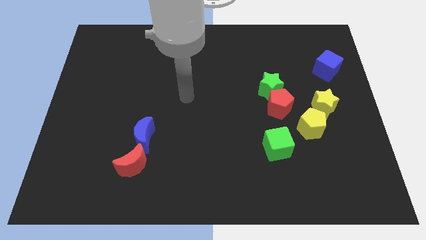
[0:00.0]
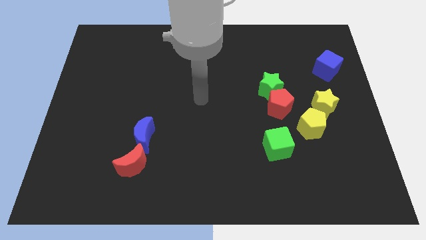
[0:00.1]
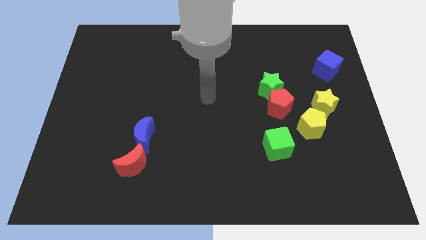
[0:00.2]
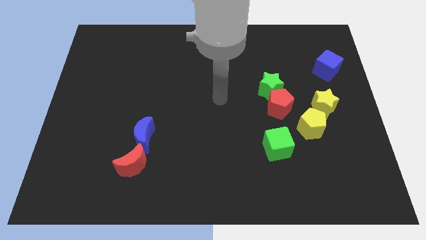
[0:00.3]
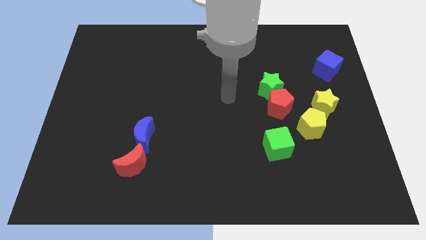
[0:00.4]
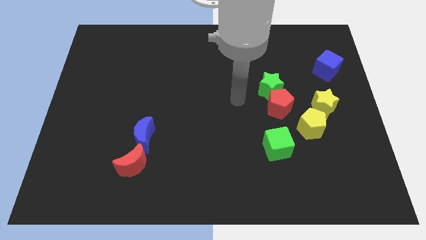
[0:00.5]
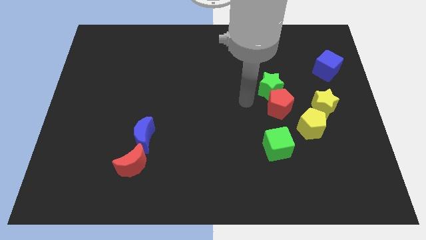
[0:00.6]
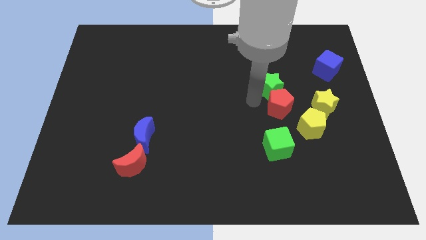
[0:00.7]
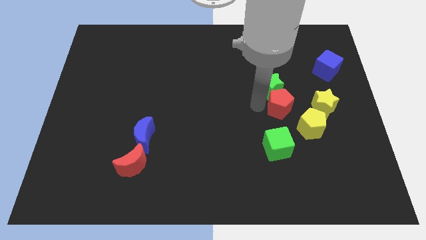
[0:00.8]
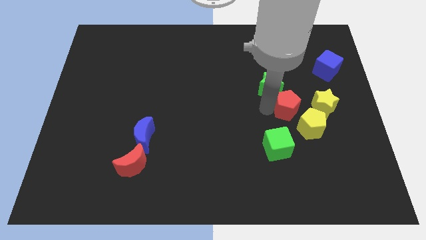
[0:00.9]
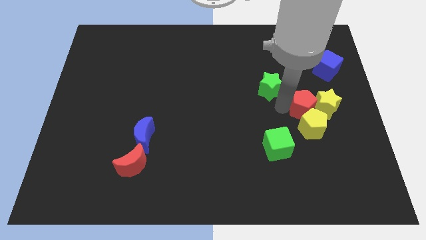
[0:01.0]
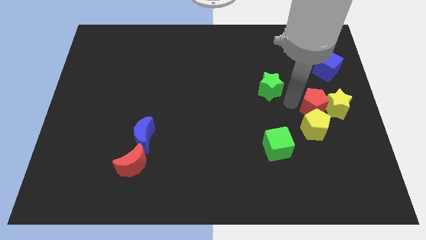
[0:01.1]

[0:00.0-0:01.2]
pull the green star apart from the red pentagon

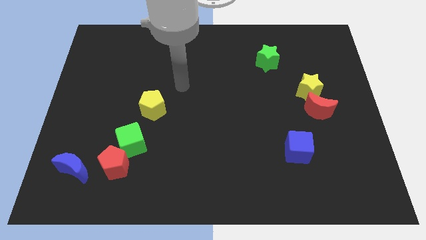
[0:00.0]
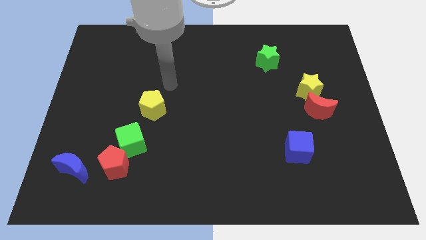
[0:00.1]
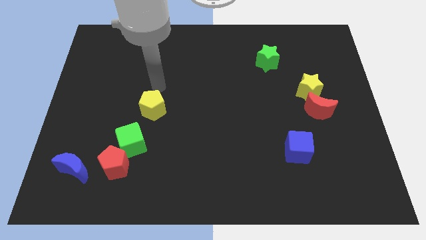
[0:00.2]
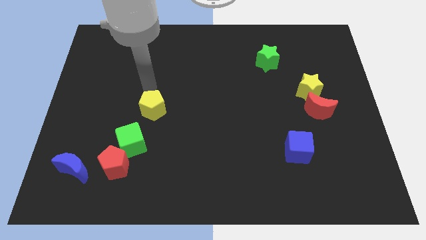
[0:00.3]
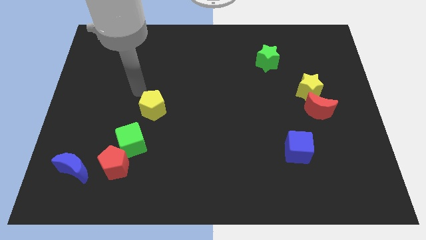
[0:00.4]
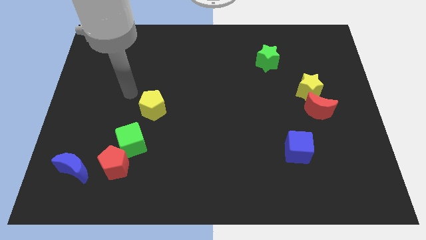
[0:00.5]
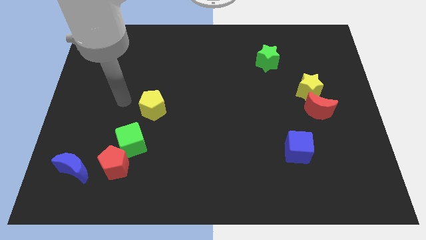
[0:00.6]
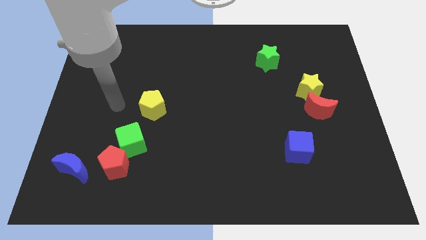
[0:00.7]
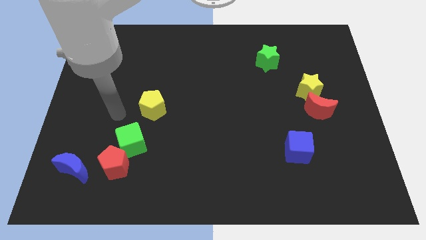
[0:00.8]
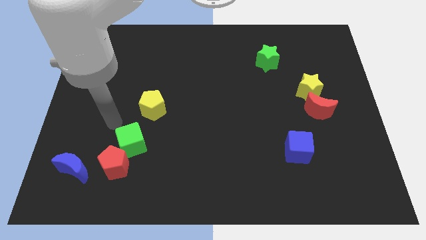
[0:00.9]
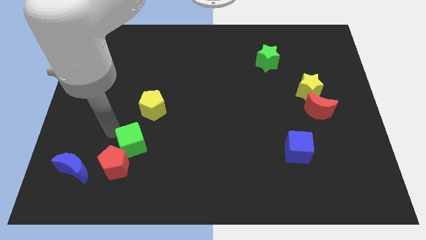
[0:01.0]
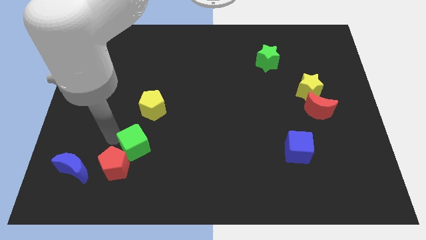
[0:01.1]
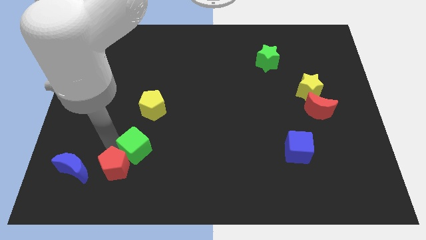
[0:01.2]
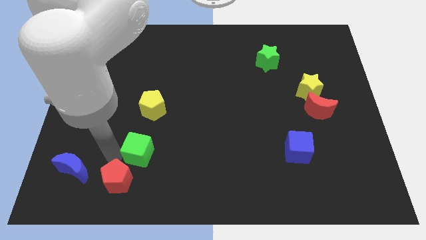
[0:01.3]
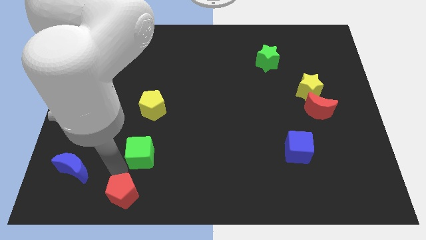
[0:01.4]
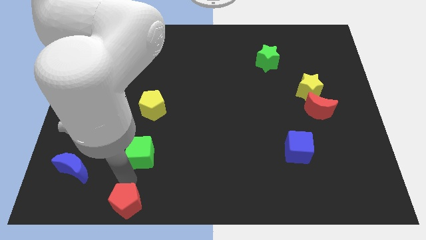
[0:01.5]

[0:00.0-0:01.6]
separate the green cube from the red pentagon

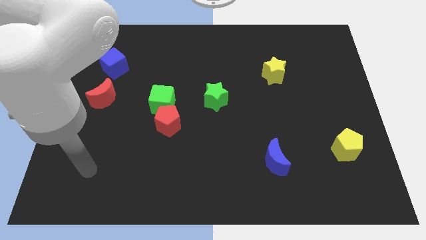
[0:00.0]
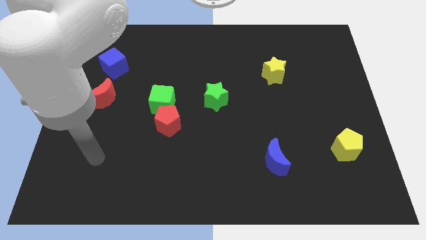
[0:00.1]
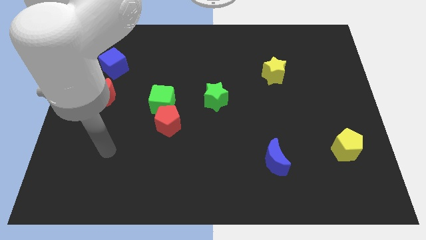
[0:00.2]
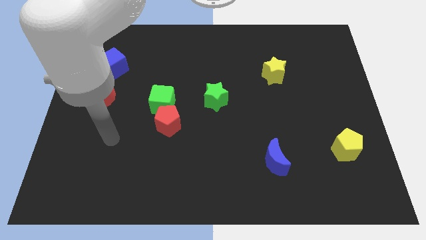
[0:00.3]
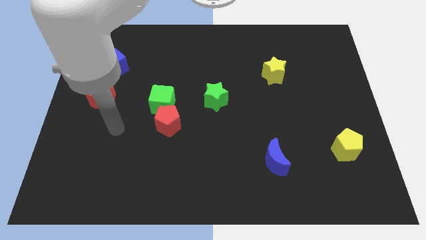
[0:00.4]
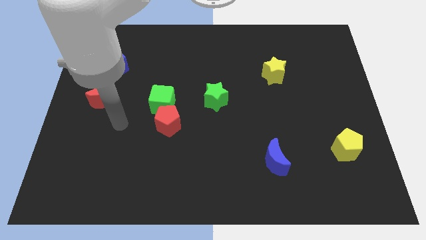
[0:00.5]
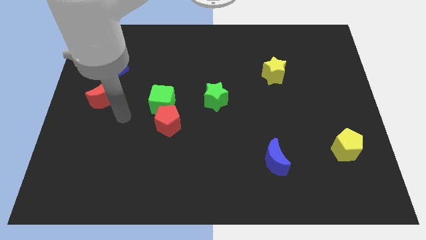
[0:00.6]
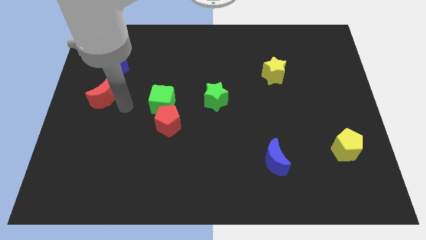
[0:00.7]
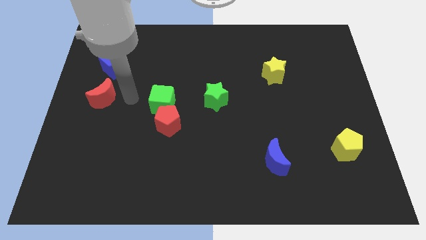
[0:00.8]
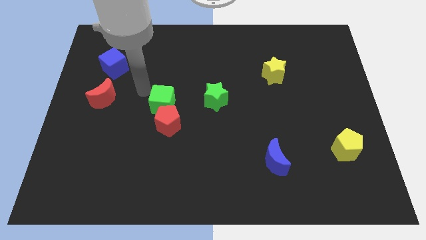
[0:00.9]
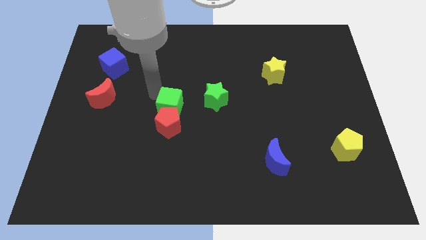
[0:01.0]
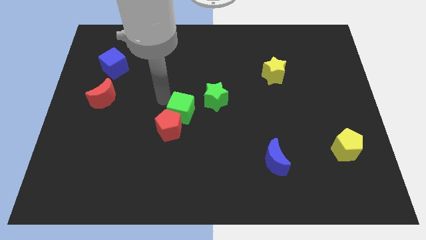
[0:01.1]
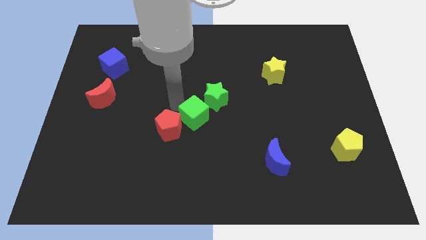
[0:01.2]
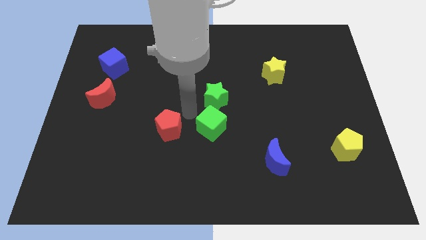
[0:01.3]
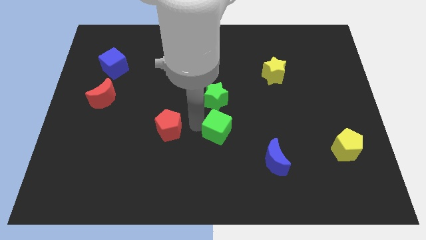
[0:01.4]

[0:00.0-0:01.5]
separate the red pentagon from the green cube

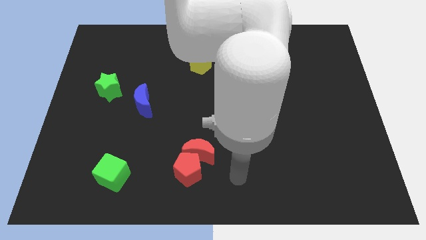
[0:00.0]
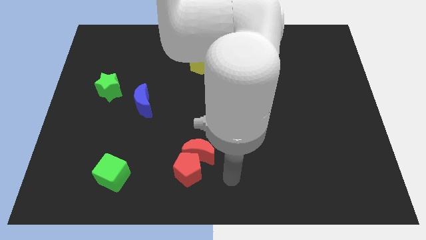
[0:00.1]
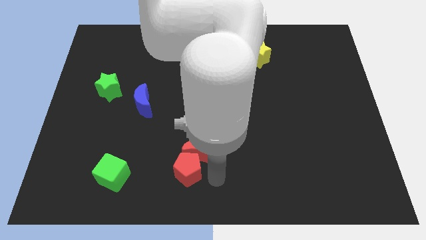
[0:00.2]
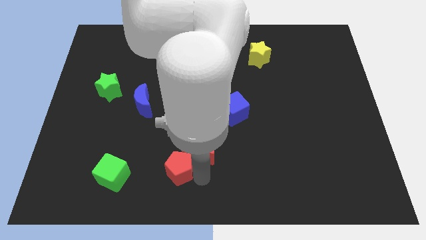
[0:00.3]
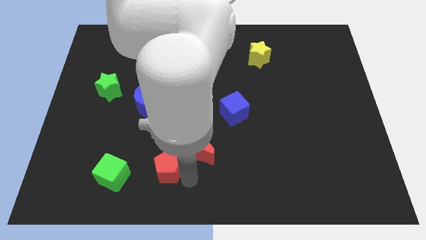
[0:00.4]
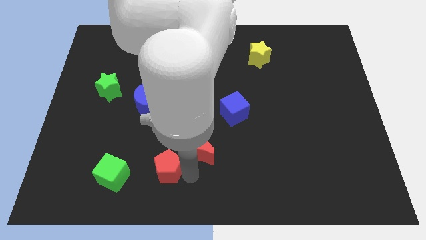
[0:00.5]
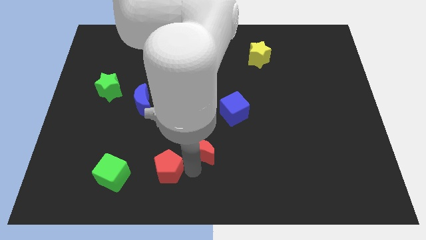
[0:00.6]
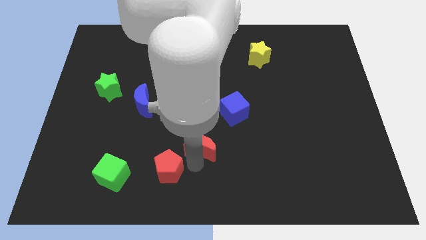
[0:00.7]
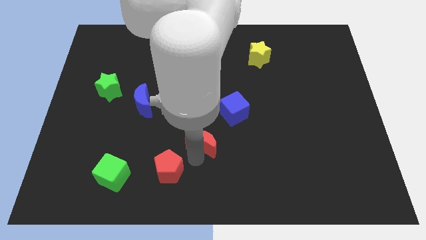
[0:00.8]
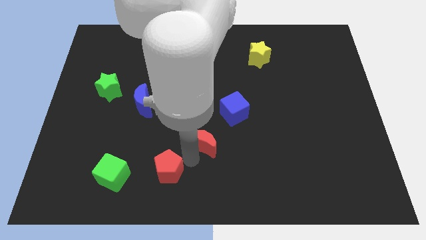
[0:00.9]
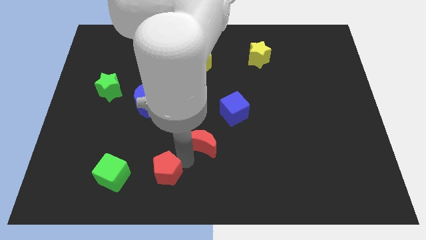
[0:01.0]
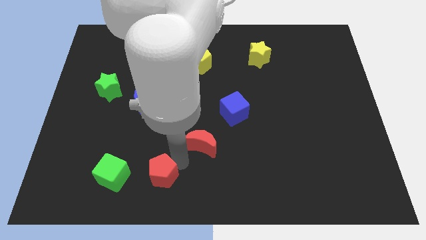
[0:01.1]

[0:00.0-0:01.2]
move the red moon away from the red pentagon

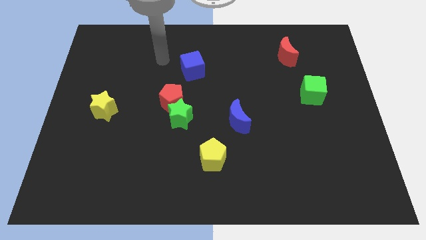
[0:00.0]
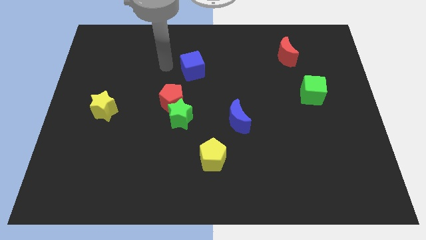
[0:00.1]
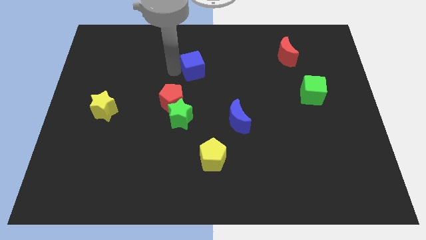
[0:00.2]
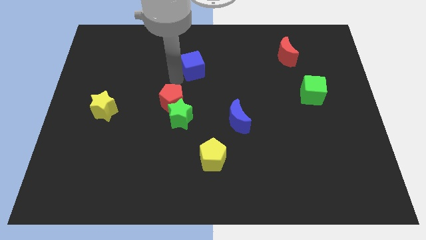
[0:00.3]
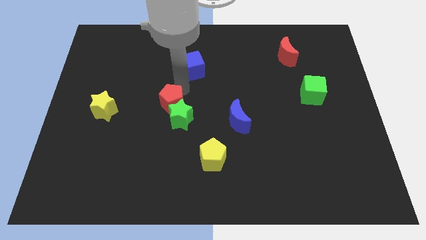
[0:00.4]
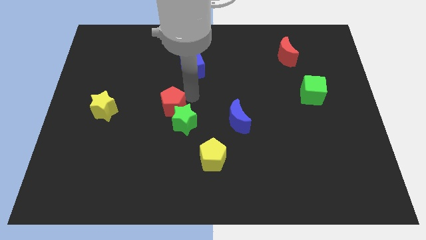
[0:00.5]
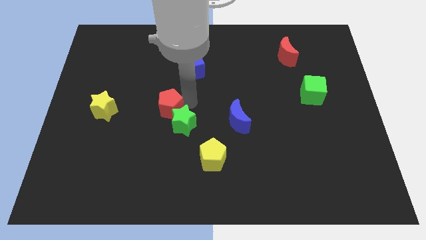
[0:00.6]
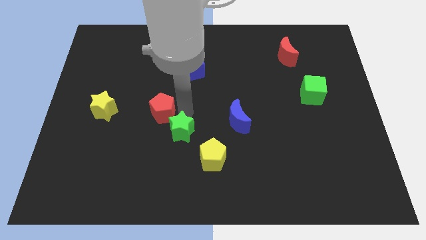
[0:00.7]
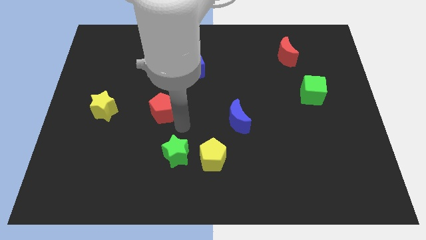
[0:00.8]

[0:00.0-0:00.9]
pull the red pentagon apart from the green star

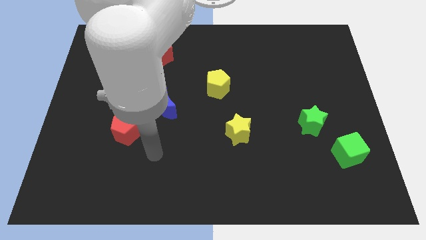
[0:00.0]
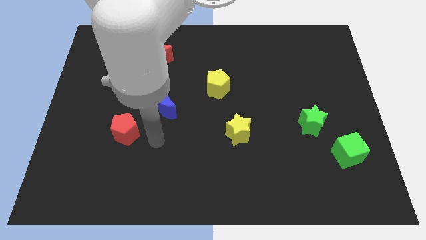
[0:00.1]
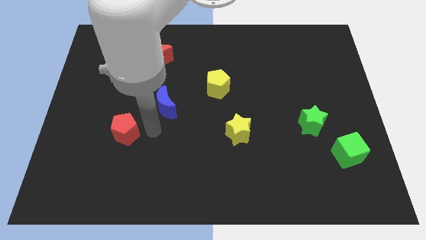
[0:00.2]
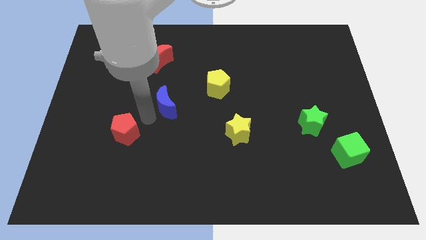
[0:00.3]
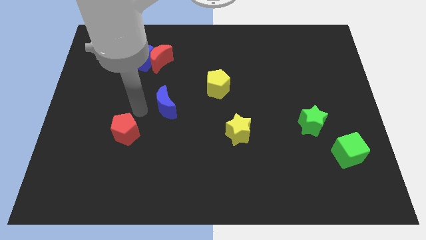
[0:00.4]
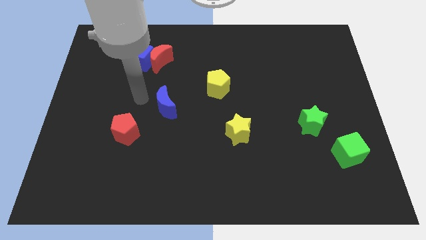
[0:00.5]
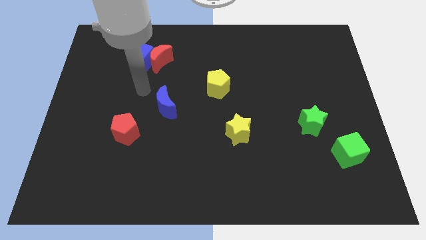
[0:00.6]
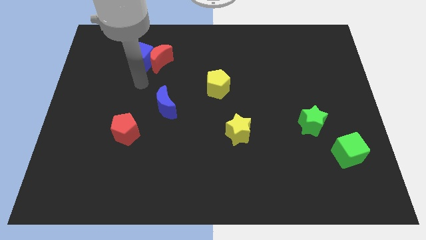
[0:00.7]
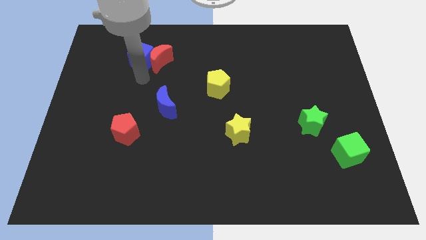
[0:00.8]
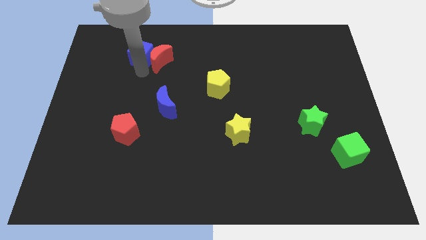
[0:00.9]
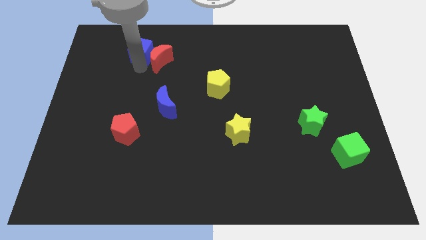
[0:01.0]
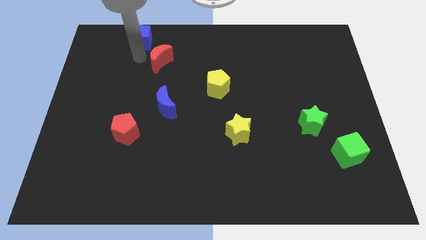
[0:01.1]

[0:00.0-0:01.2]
move the red moon away from the blue cube

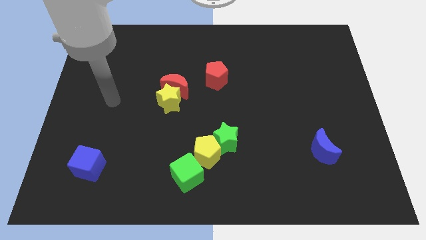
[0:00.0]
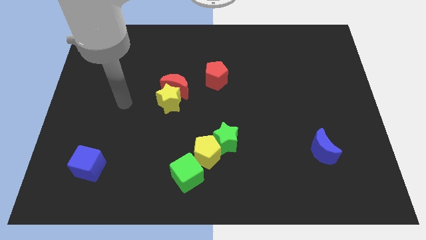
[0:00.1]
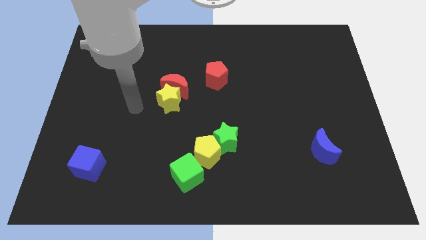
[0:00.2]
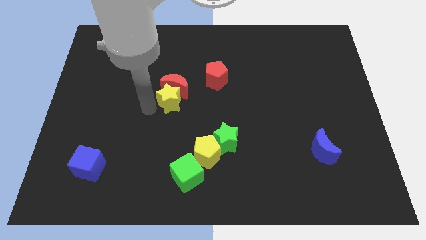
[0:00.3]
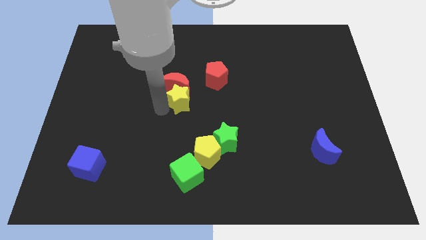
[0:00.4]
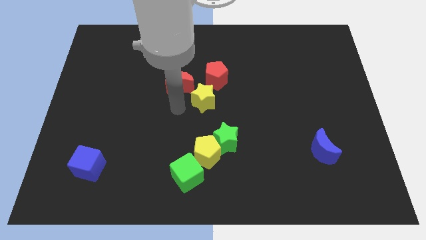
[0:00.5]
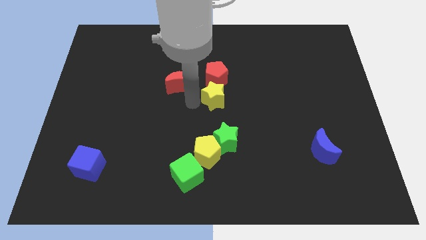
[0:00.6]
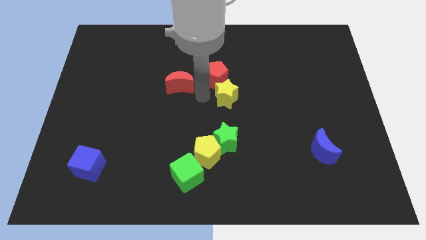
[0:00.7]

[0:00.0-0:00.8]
pull the red moon apart from the yellow star

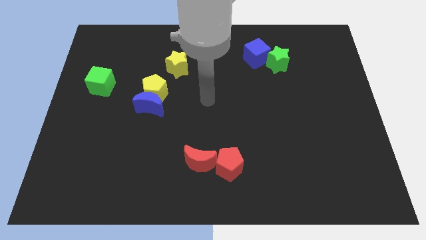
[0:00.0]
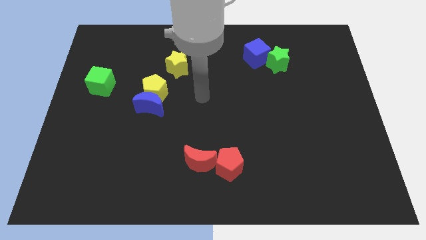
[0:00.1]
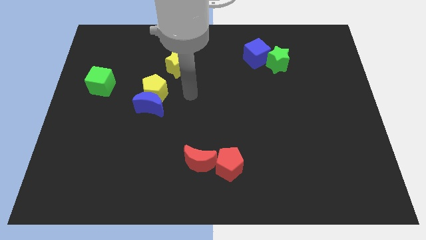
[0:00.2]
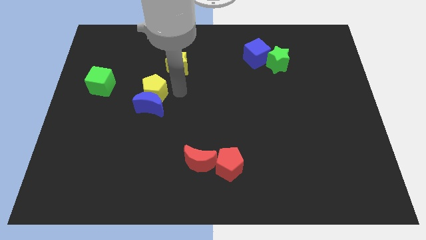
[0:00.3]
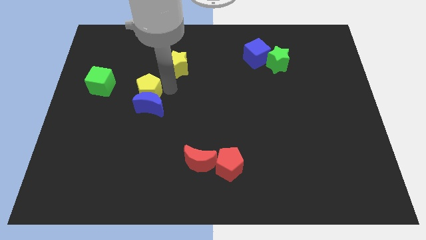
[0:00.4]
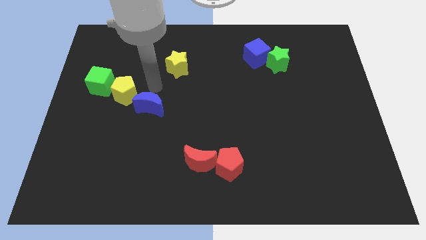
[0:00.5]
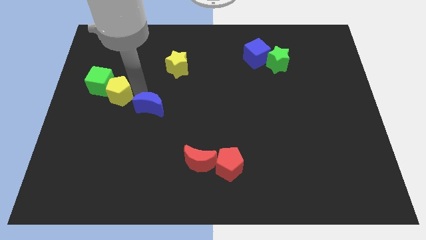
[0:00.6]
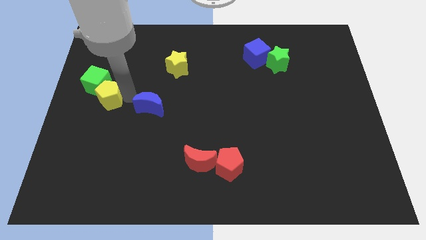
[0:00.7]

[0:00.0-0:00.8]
move the blue moon away from the yellow pentagon
